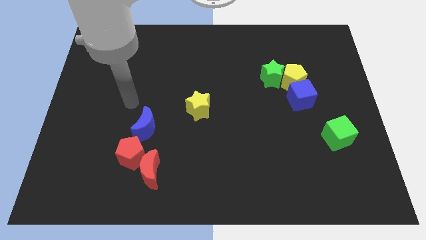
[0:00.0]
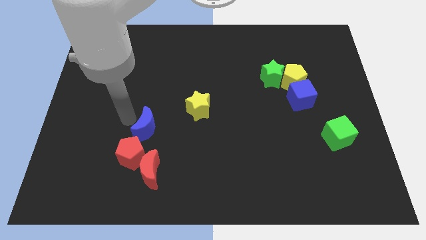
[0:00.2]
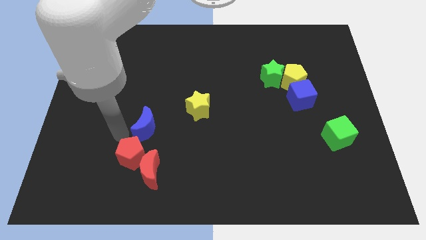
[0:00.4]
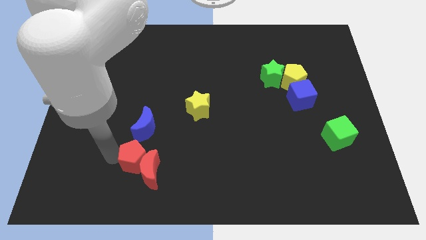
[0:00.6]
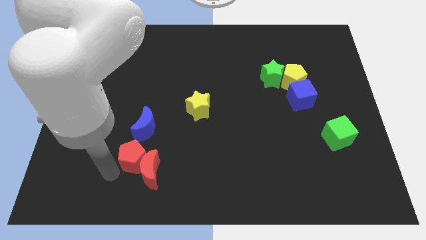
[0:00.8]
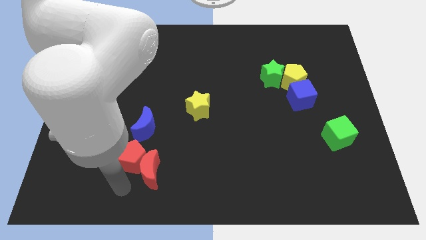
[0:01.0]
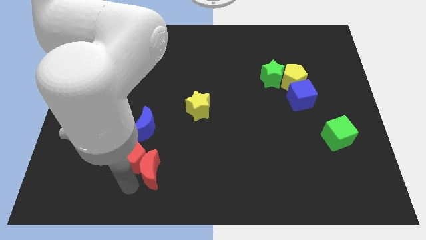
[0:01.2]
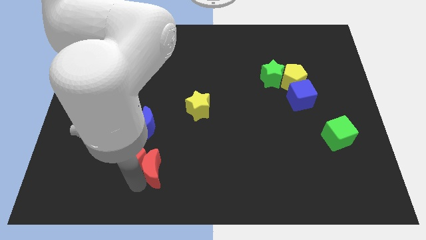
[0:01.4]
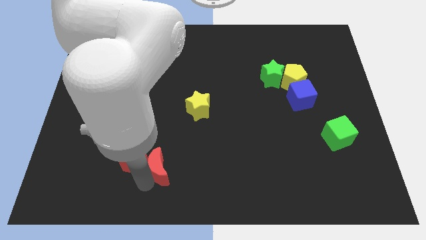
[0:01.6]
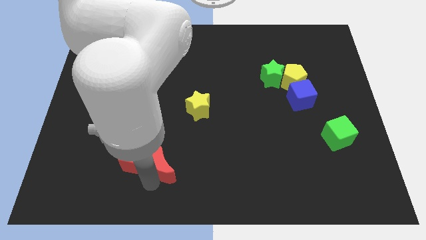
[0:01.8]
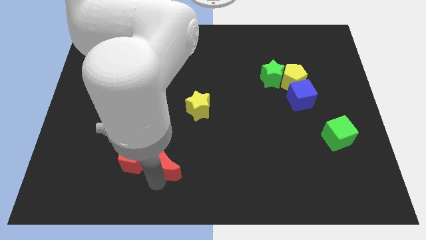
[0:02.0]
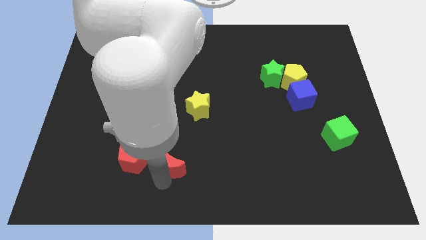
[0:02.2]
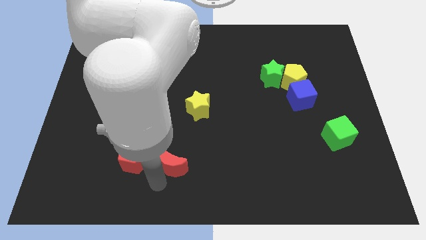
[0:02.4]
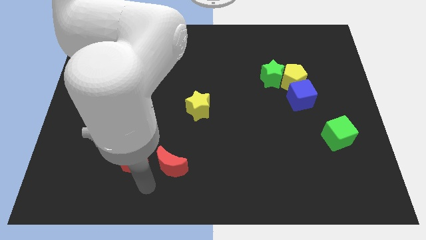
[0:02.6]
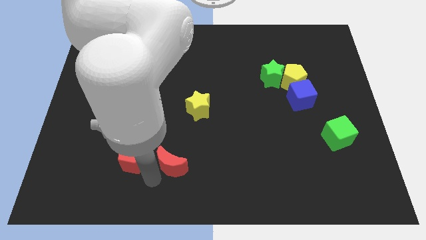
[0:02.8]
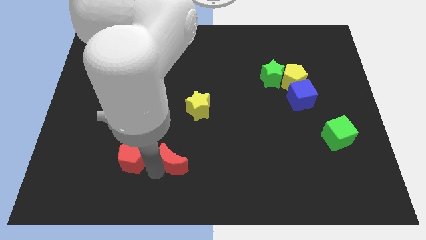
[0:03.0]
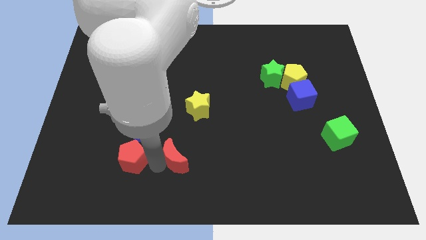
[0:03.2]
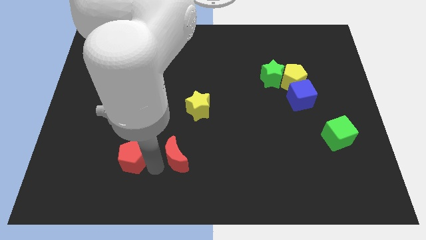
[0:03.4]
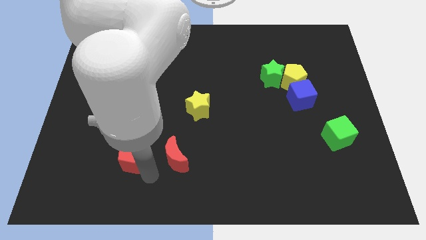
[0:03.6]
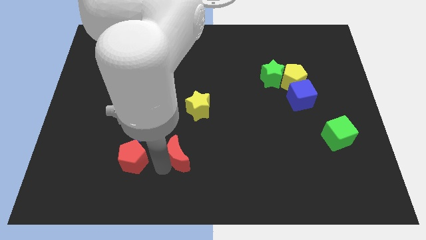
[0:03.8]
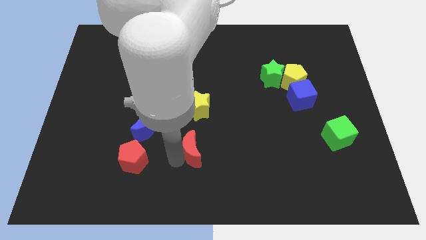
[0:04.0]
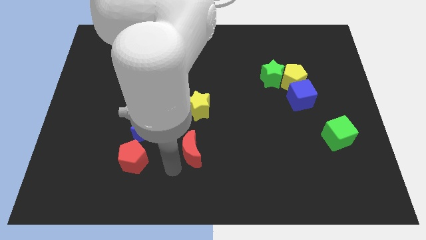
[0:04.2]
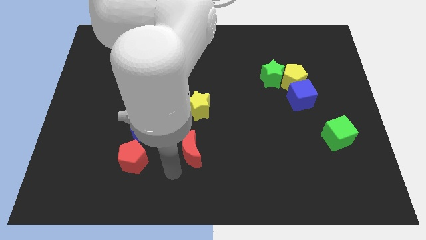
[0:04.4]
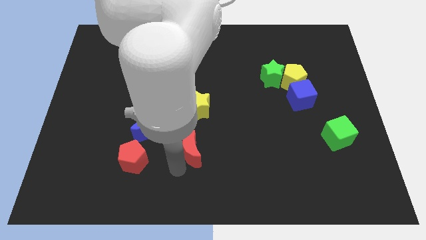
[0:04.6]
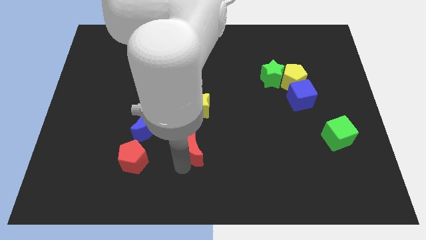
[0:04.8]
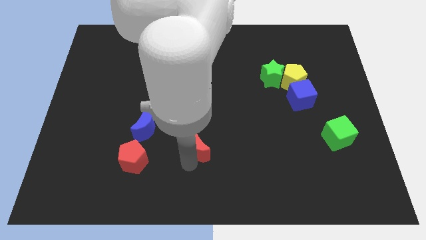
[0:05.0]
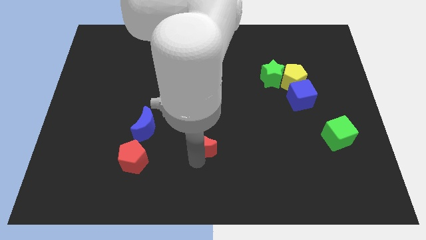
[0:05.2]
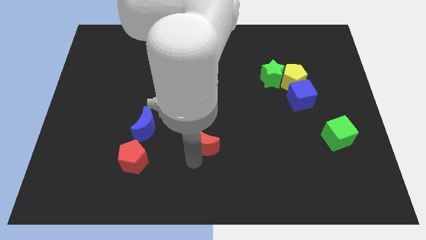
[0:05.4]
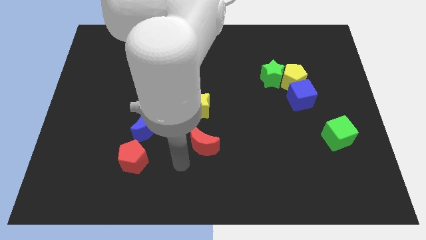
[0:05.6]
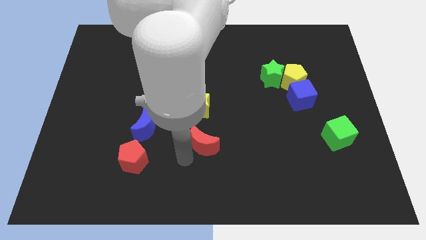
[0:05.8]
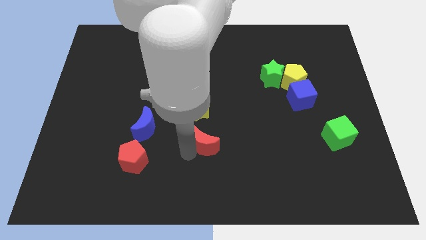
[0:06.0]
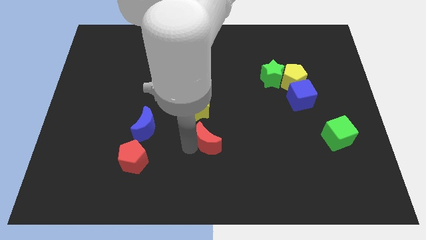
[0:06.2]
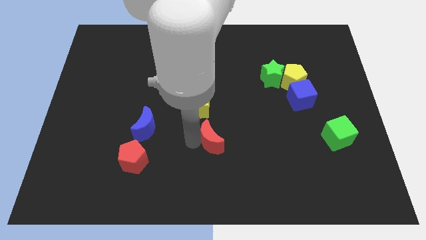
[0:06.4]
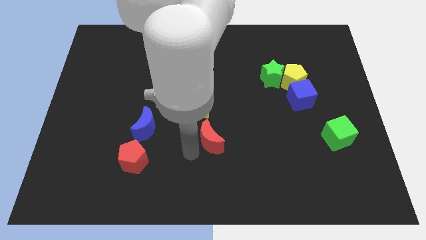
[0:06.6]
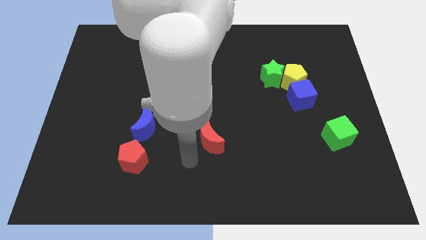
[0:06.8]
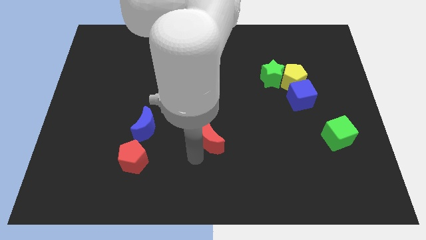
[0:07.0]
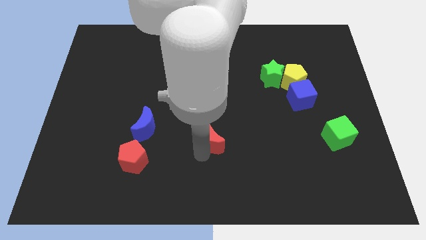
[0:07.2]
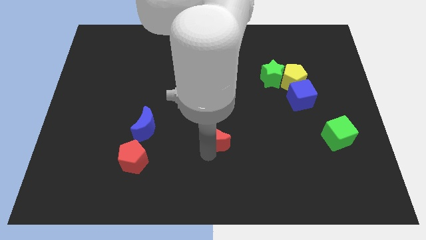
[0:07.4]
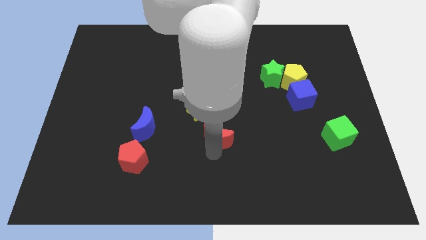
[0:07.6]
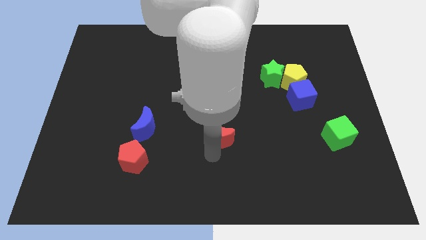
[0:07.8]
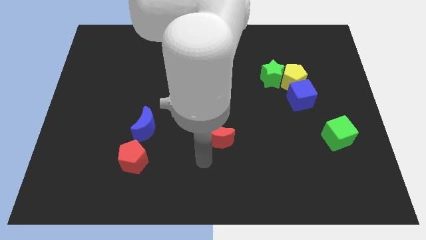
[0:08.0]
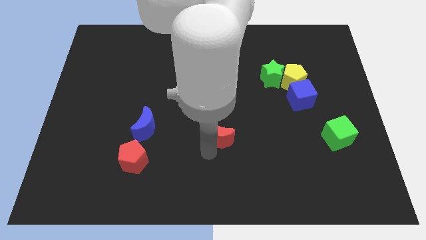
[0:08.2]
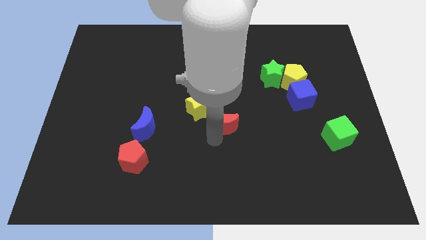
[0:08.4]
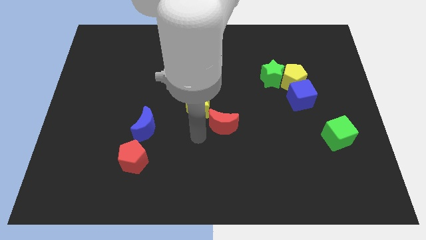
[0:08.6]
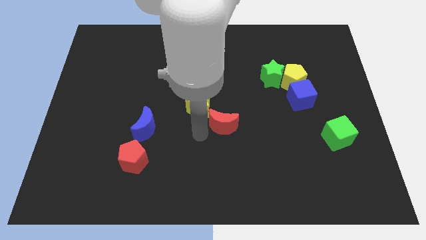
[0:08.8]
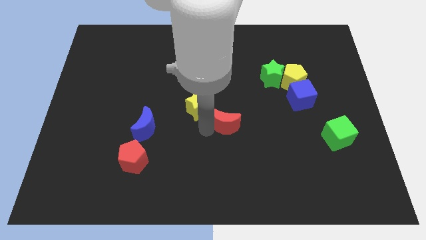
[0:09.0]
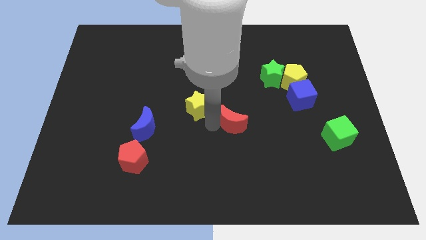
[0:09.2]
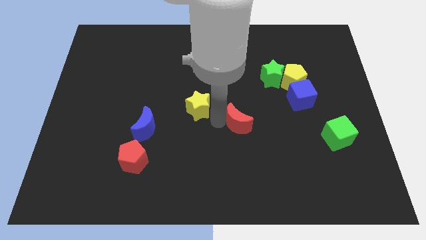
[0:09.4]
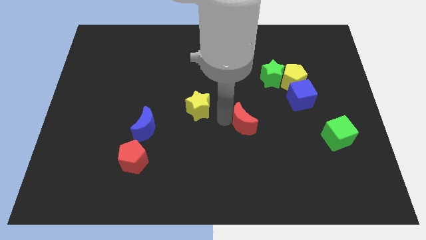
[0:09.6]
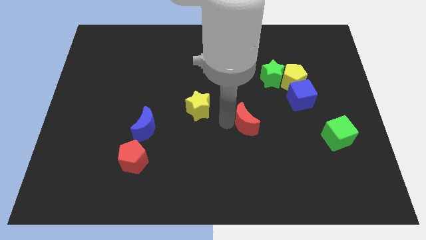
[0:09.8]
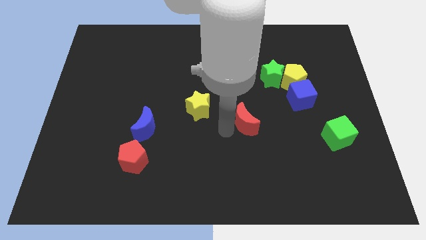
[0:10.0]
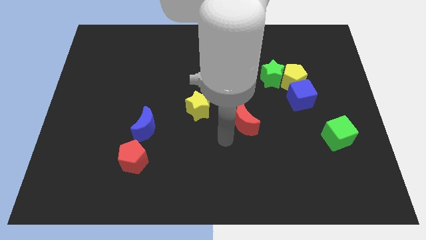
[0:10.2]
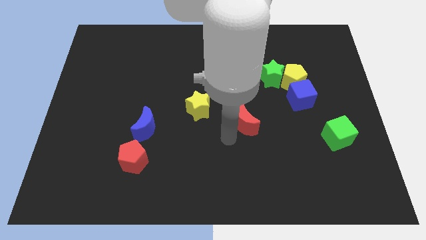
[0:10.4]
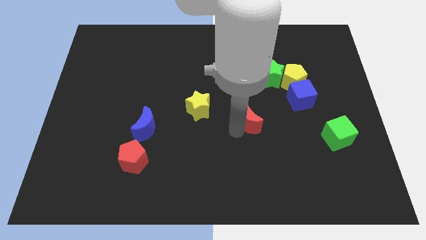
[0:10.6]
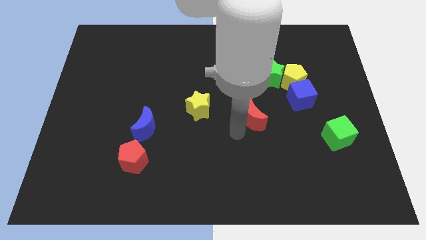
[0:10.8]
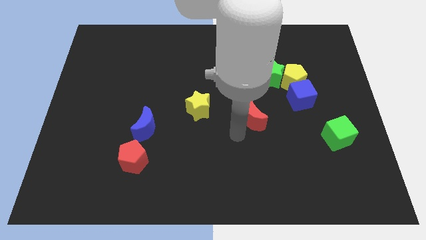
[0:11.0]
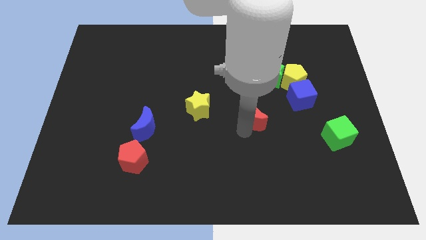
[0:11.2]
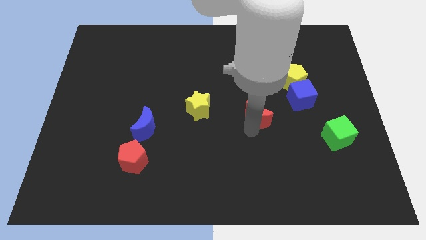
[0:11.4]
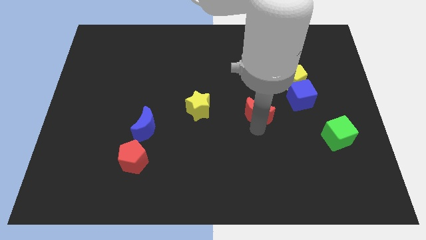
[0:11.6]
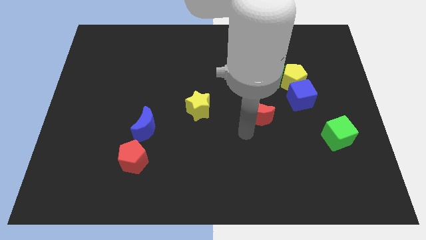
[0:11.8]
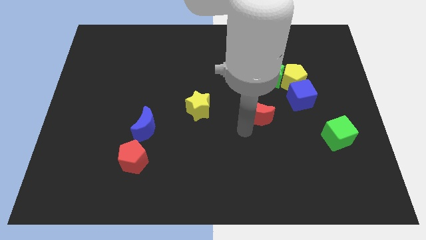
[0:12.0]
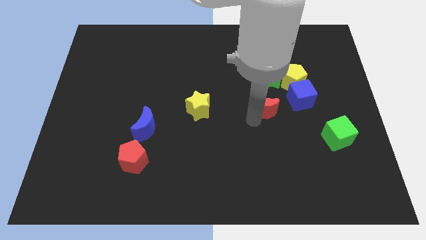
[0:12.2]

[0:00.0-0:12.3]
move the red moon to the bottom left of the yellow pentagon

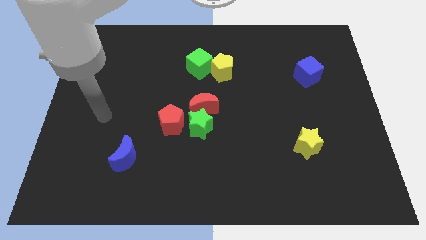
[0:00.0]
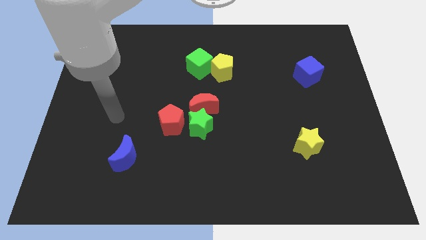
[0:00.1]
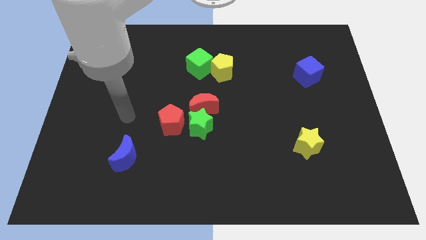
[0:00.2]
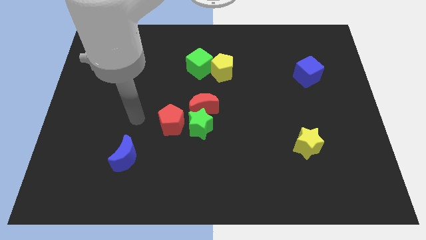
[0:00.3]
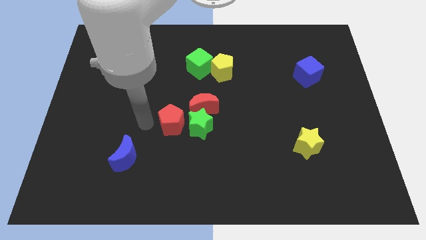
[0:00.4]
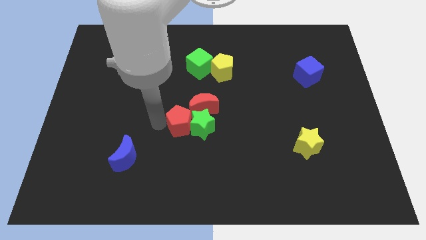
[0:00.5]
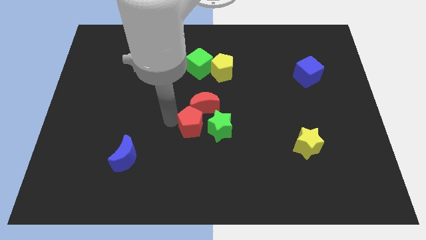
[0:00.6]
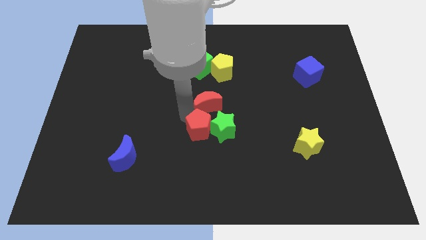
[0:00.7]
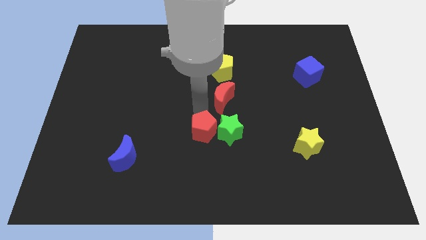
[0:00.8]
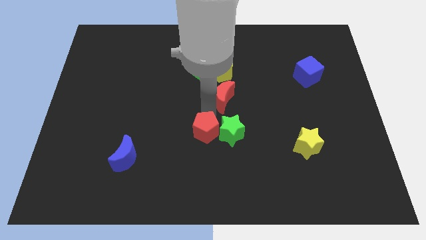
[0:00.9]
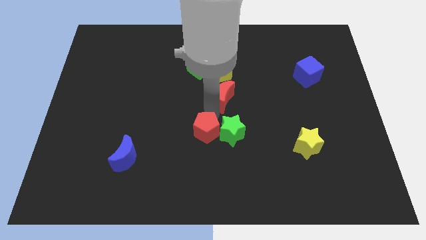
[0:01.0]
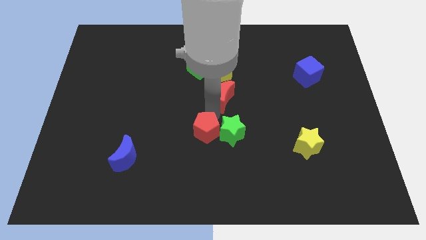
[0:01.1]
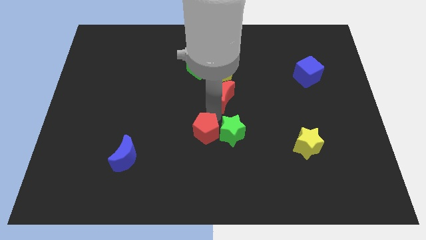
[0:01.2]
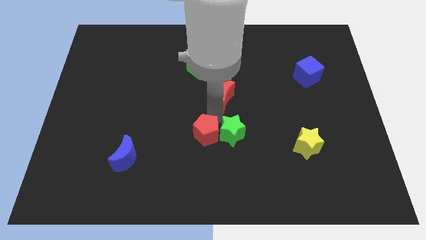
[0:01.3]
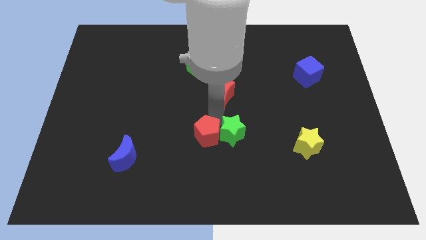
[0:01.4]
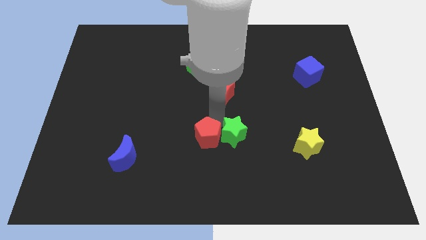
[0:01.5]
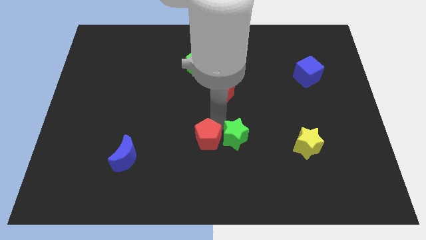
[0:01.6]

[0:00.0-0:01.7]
push the green star just left of the yellow star
